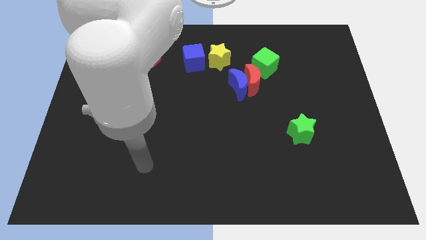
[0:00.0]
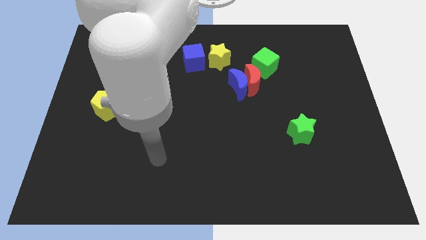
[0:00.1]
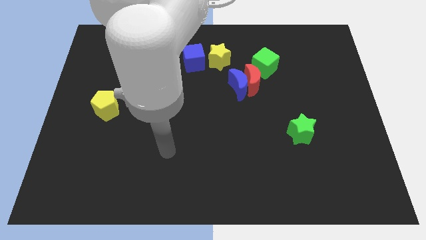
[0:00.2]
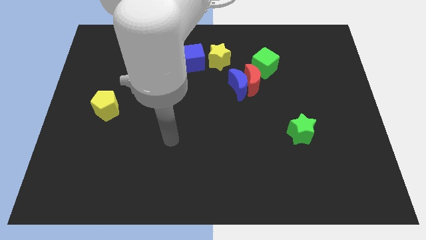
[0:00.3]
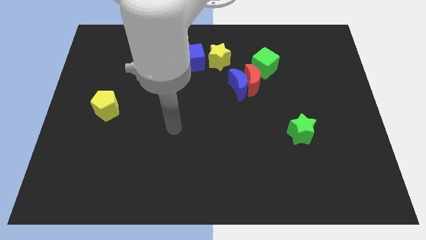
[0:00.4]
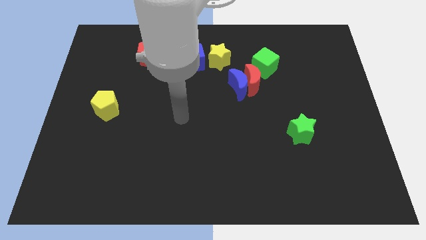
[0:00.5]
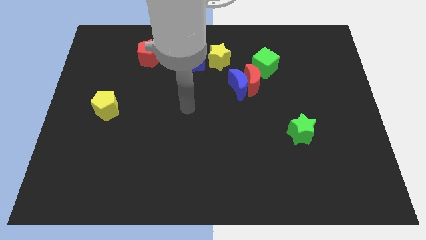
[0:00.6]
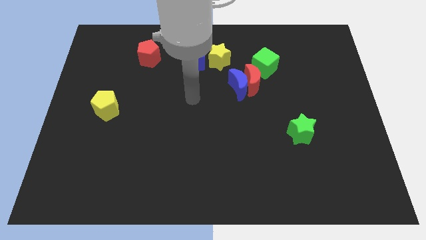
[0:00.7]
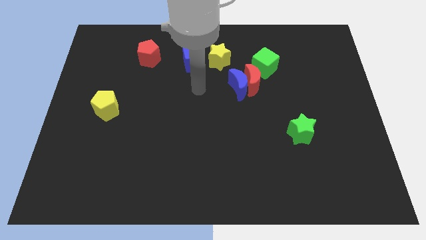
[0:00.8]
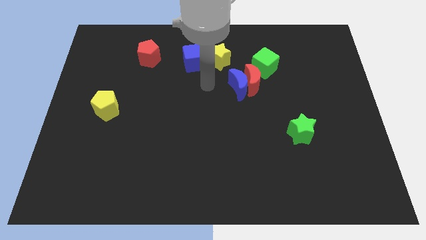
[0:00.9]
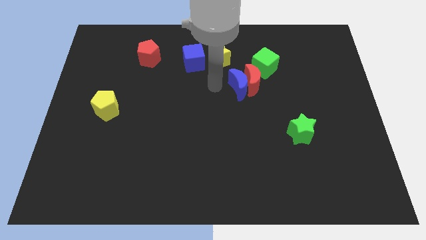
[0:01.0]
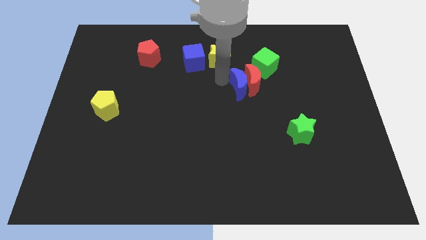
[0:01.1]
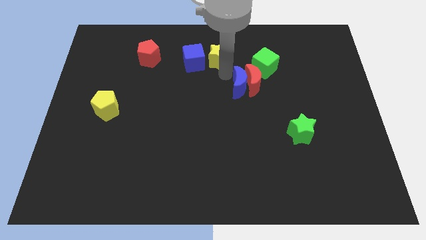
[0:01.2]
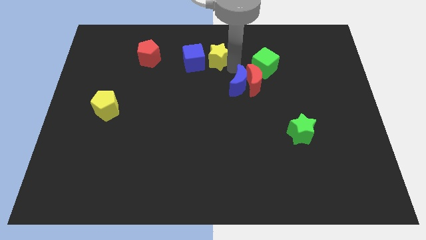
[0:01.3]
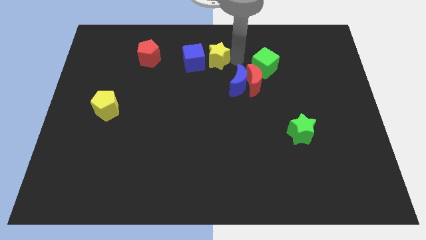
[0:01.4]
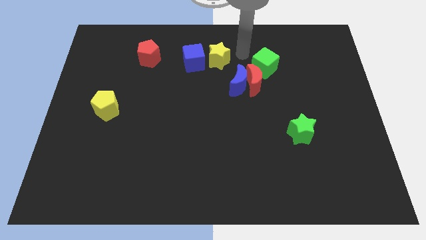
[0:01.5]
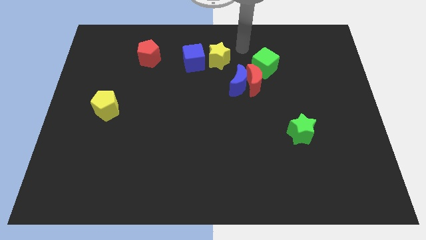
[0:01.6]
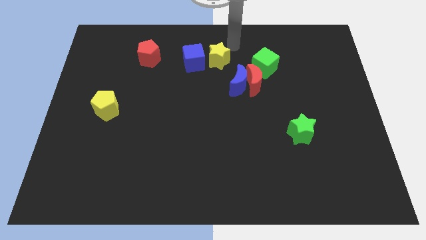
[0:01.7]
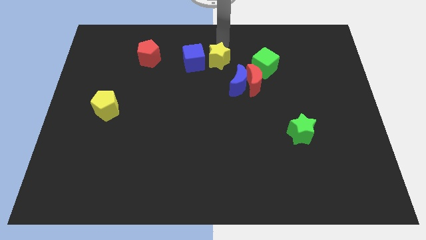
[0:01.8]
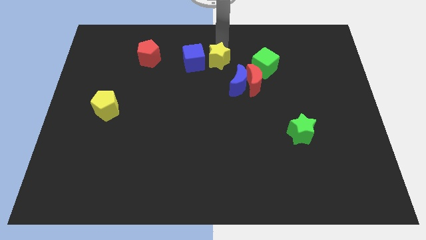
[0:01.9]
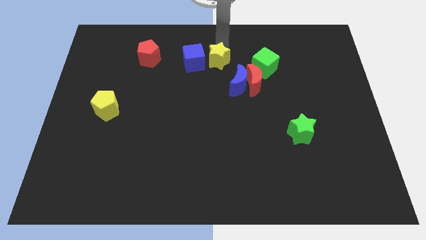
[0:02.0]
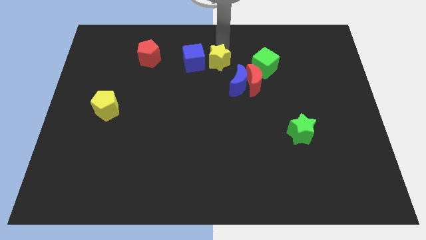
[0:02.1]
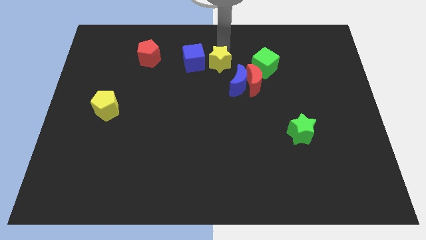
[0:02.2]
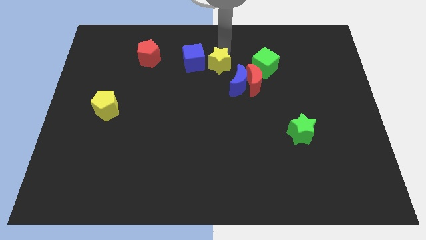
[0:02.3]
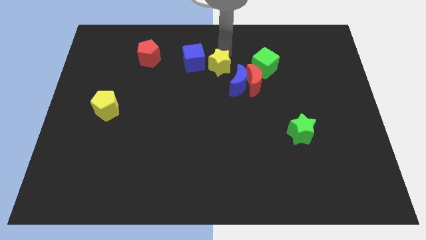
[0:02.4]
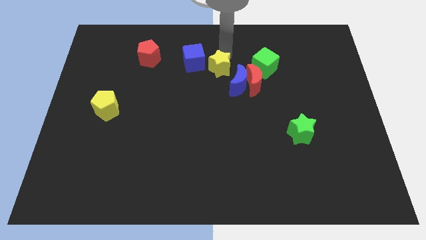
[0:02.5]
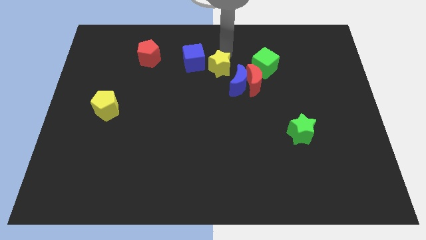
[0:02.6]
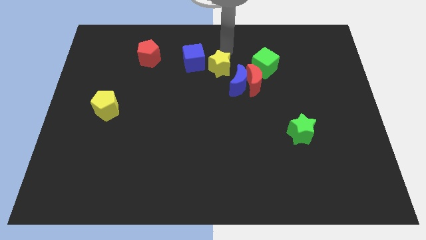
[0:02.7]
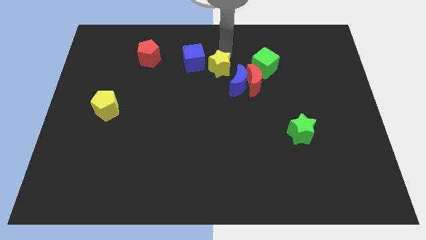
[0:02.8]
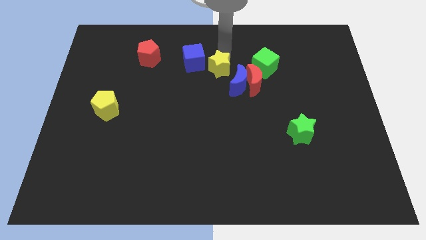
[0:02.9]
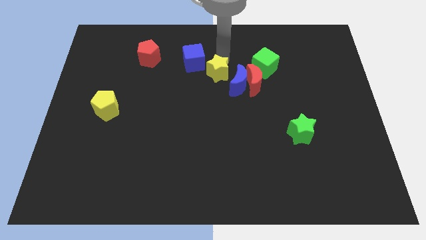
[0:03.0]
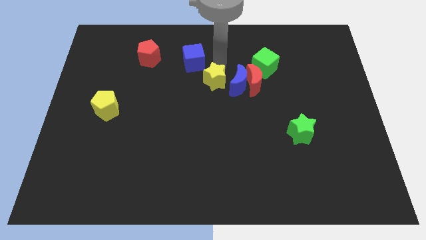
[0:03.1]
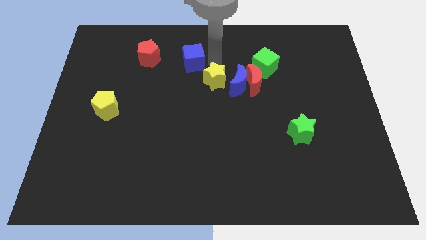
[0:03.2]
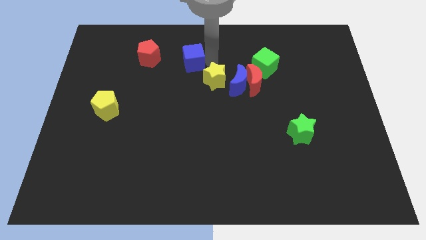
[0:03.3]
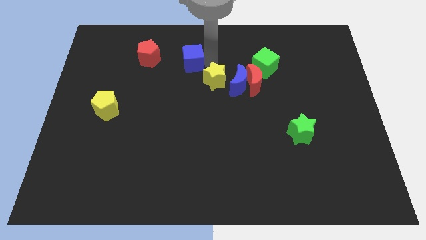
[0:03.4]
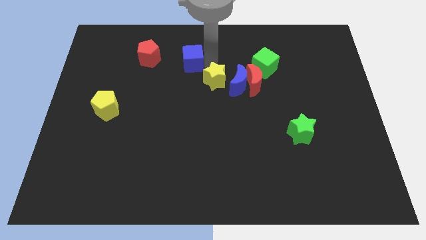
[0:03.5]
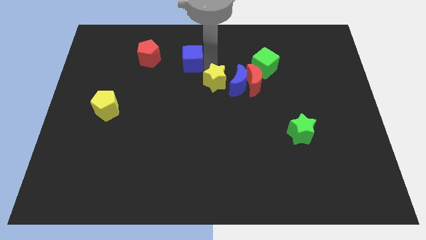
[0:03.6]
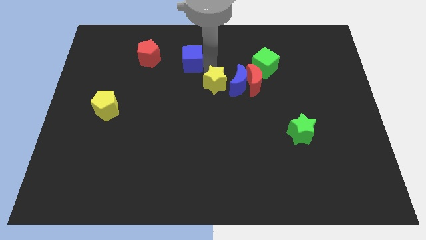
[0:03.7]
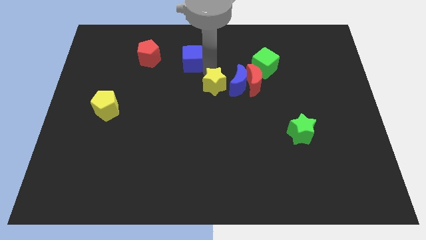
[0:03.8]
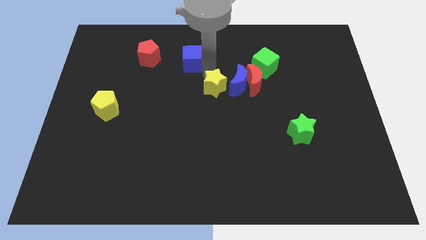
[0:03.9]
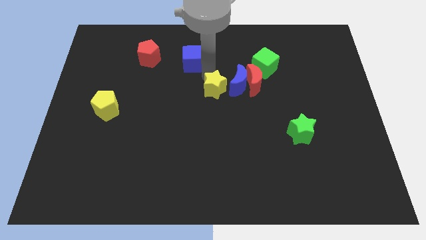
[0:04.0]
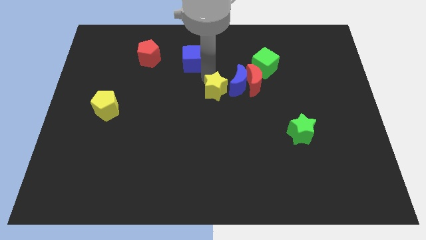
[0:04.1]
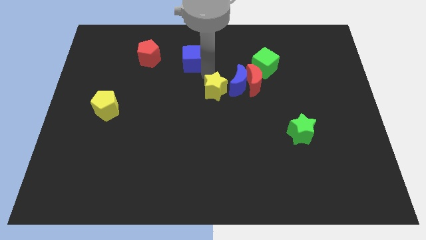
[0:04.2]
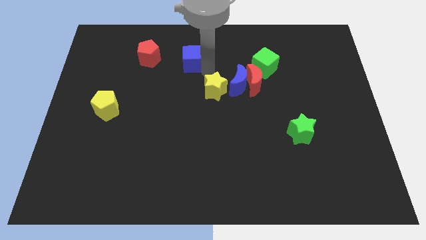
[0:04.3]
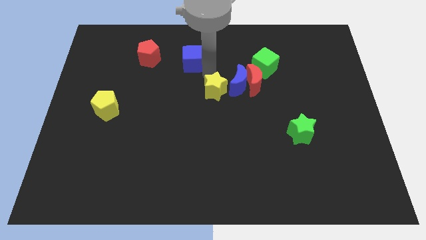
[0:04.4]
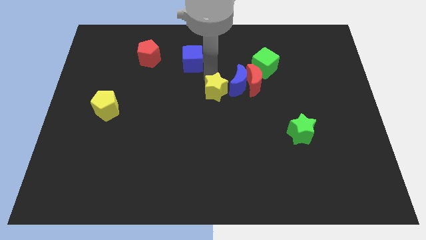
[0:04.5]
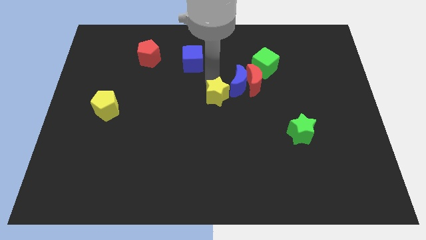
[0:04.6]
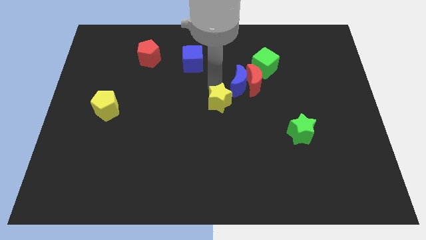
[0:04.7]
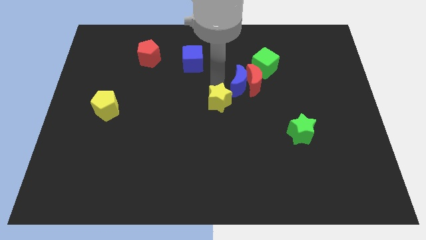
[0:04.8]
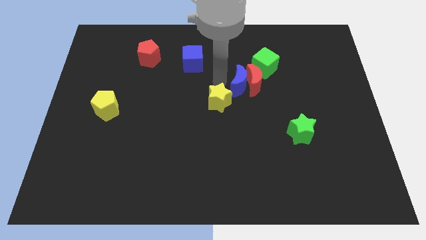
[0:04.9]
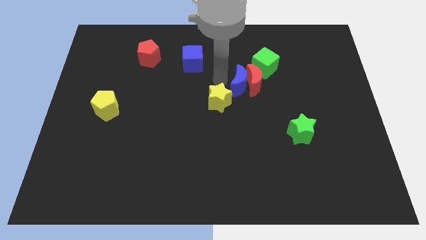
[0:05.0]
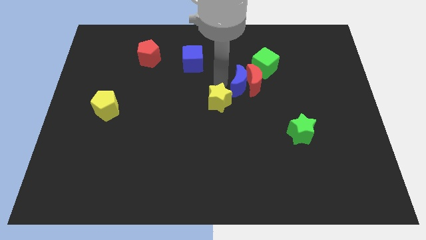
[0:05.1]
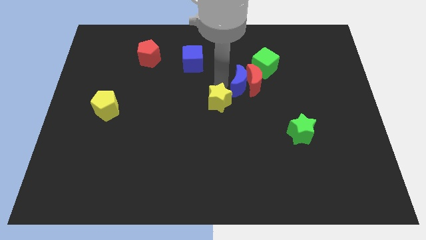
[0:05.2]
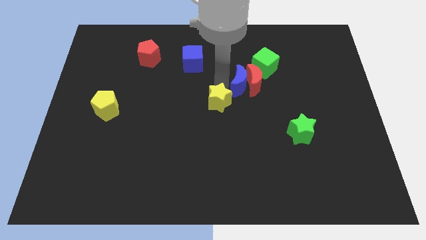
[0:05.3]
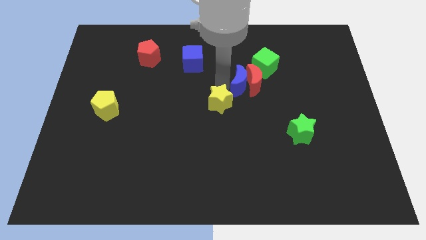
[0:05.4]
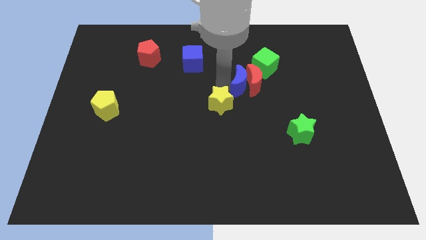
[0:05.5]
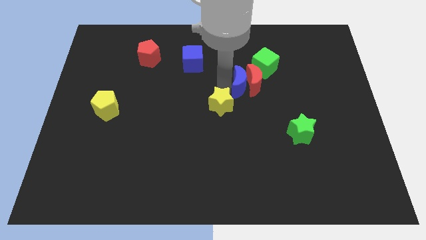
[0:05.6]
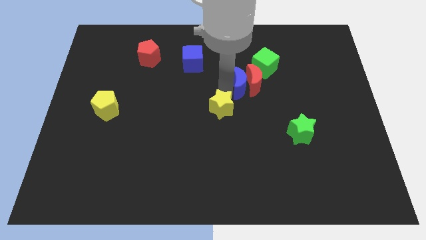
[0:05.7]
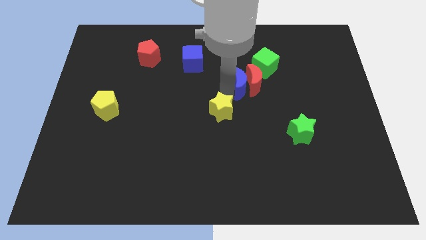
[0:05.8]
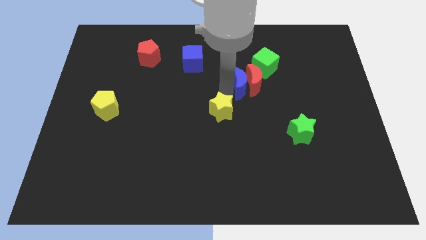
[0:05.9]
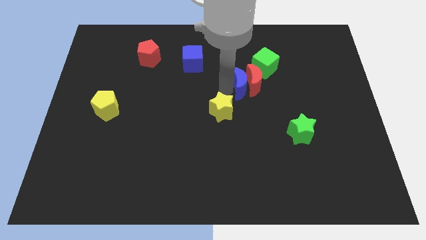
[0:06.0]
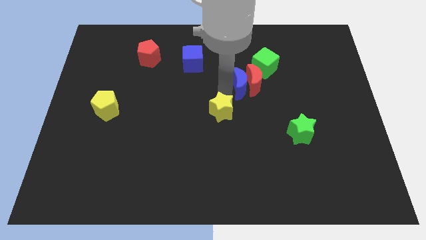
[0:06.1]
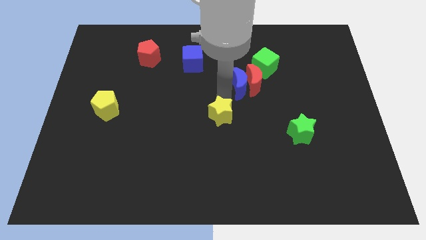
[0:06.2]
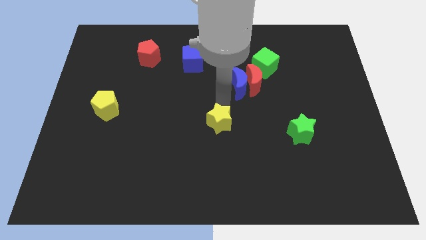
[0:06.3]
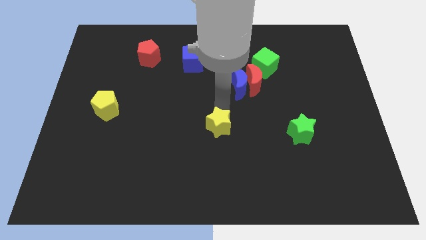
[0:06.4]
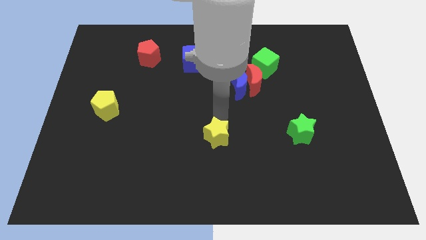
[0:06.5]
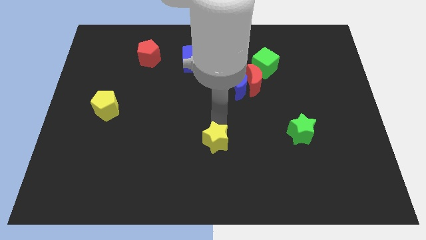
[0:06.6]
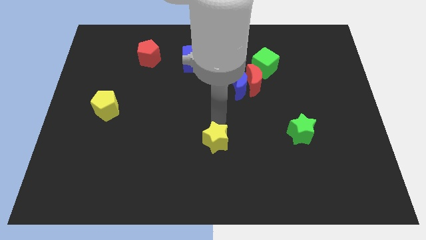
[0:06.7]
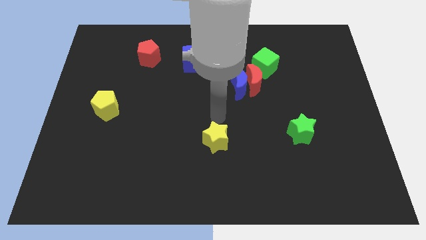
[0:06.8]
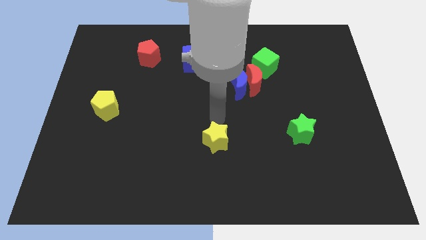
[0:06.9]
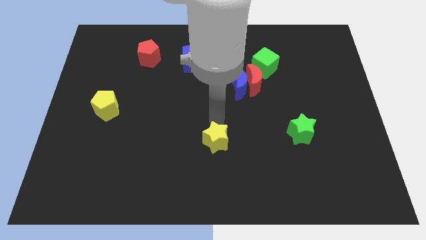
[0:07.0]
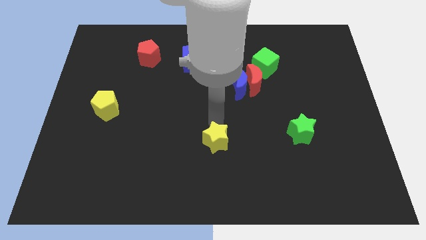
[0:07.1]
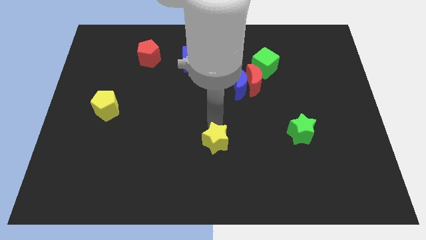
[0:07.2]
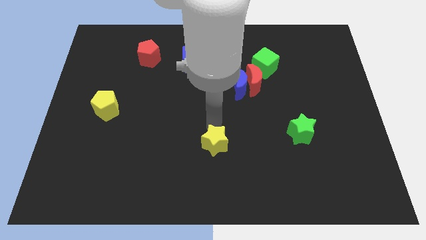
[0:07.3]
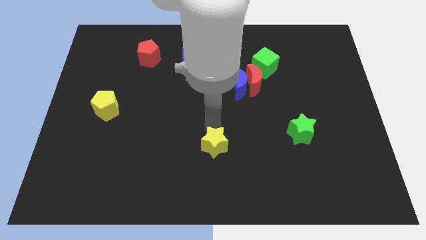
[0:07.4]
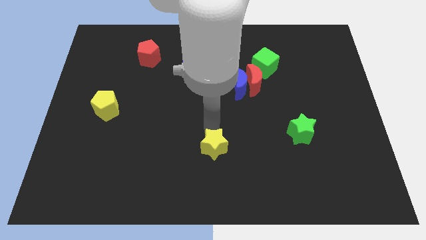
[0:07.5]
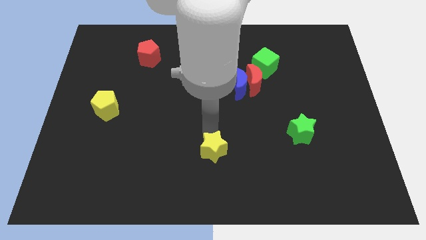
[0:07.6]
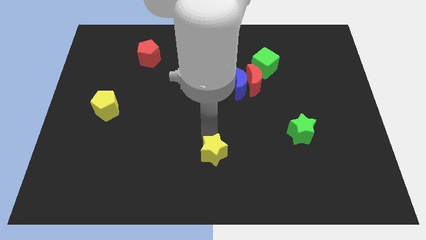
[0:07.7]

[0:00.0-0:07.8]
put the yellow star to the bottom side
